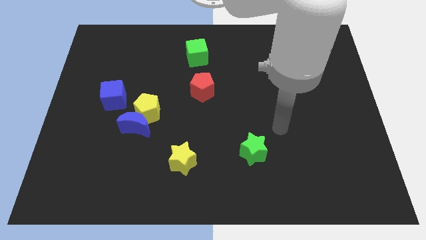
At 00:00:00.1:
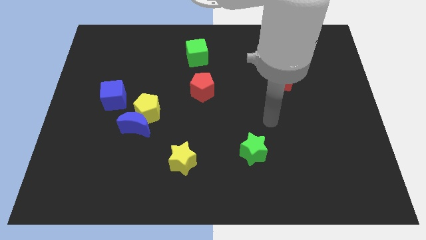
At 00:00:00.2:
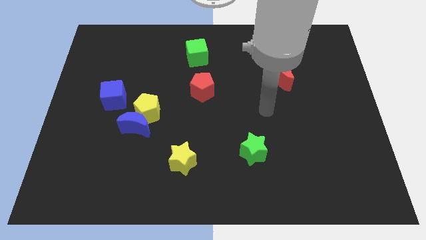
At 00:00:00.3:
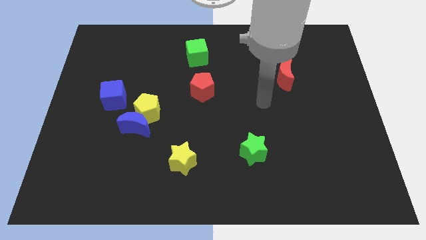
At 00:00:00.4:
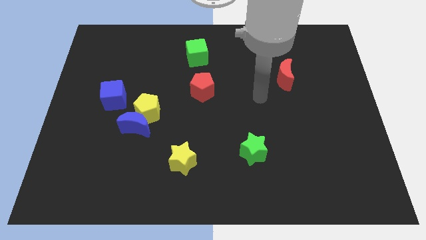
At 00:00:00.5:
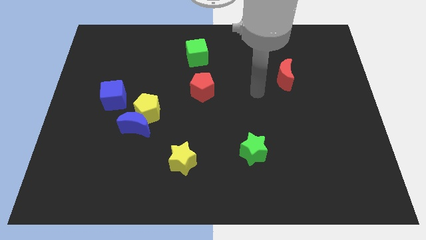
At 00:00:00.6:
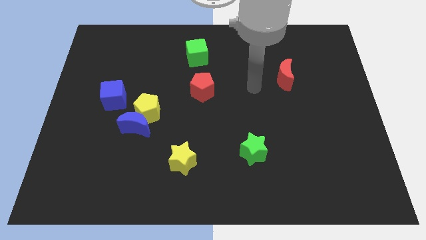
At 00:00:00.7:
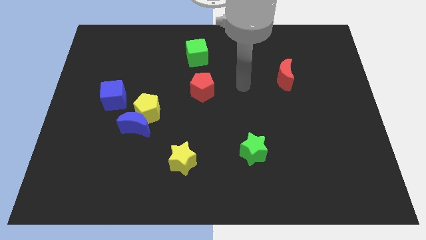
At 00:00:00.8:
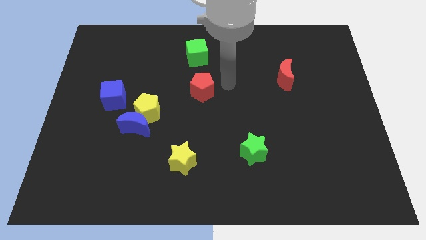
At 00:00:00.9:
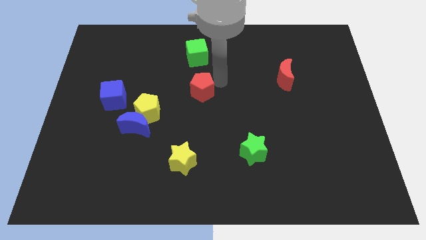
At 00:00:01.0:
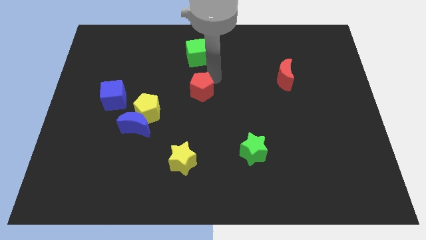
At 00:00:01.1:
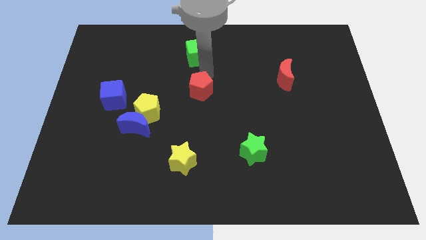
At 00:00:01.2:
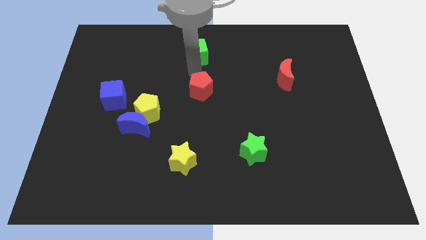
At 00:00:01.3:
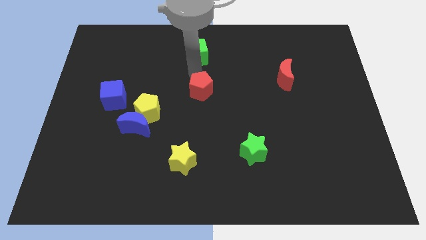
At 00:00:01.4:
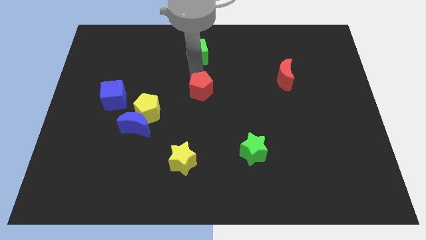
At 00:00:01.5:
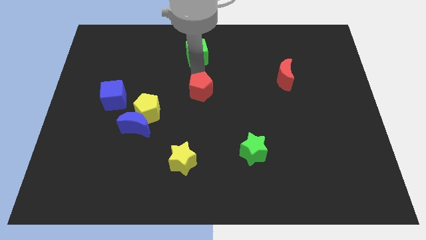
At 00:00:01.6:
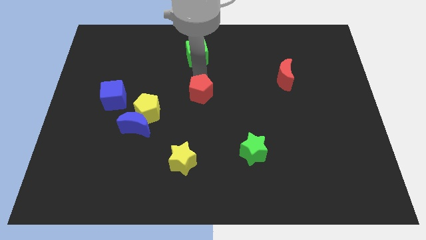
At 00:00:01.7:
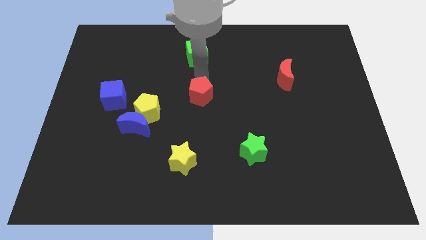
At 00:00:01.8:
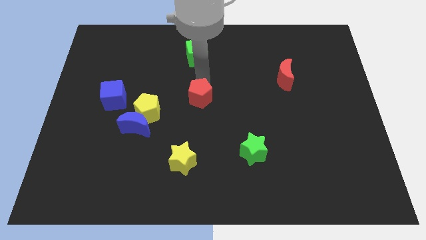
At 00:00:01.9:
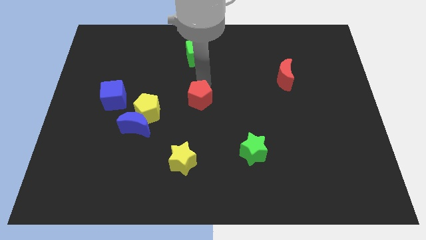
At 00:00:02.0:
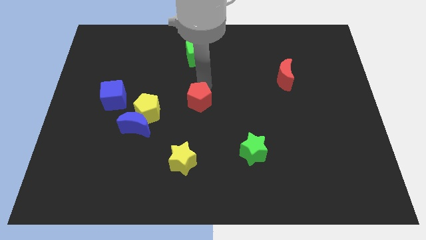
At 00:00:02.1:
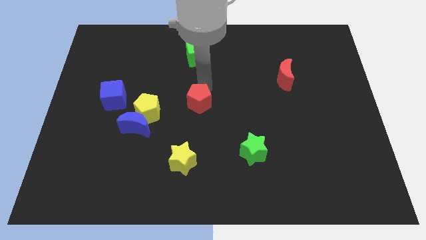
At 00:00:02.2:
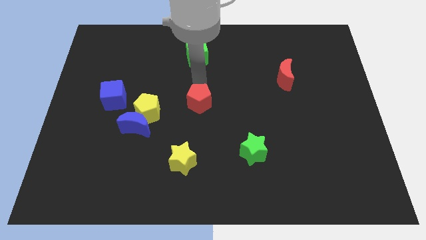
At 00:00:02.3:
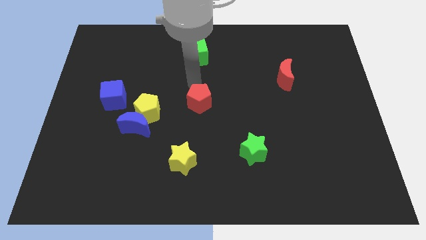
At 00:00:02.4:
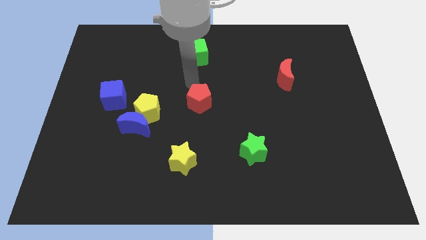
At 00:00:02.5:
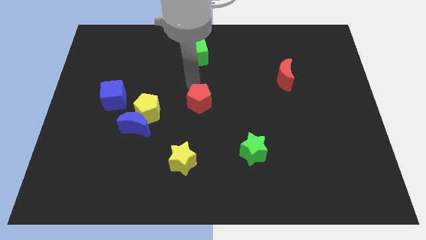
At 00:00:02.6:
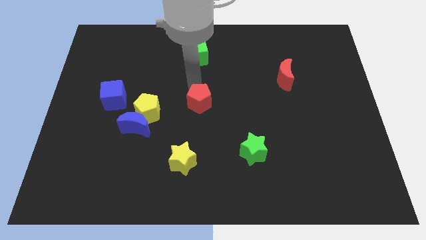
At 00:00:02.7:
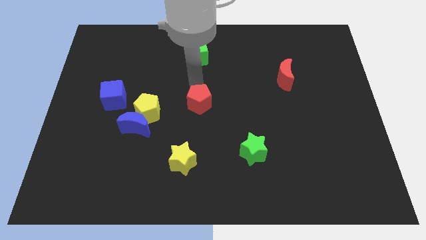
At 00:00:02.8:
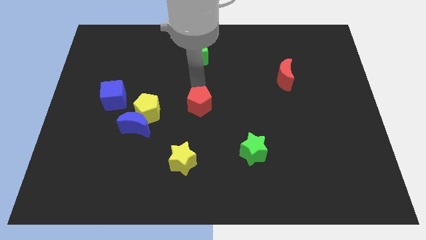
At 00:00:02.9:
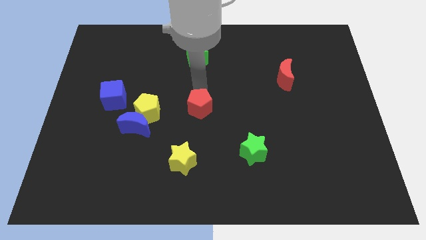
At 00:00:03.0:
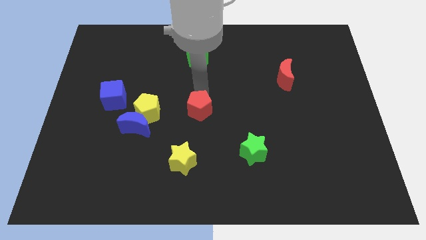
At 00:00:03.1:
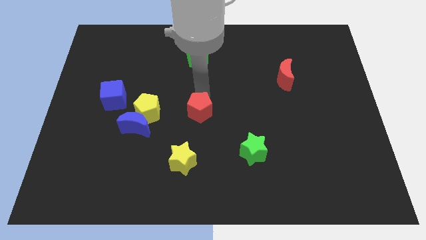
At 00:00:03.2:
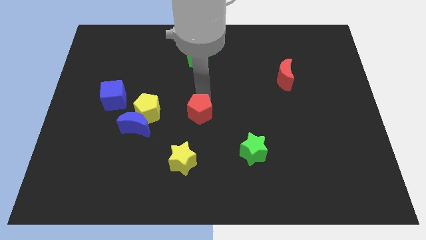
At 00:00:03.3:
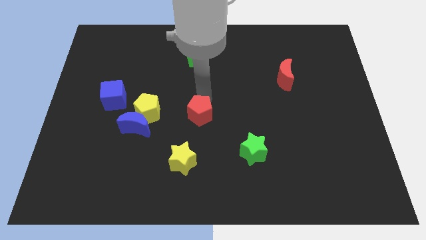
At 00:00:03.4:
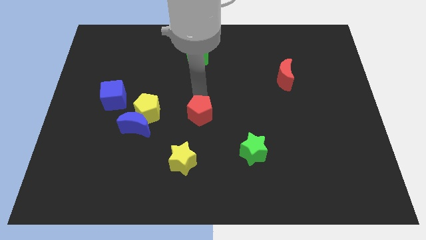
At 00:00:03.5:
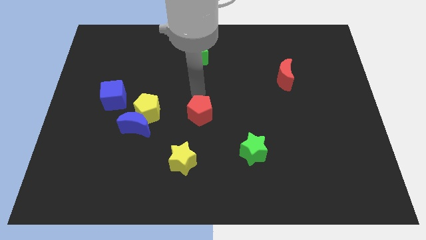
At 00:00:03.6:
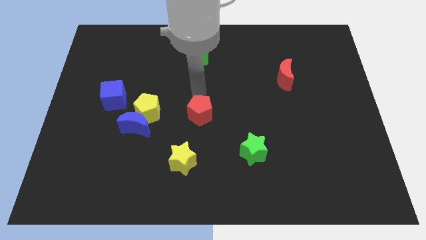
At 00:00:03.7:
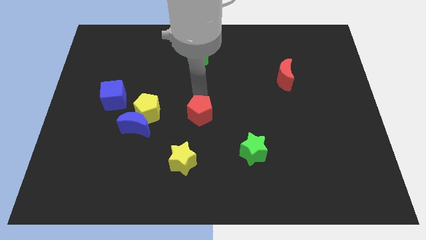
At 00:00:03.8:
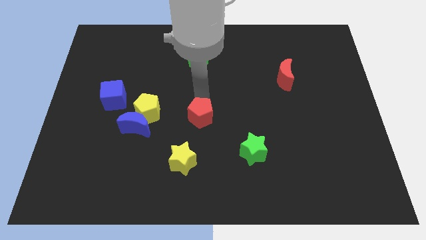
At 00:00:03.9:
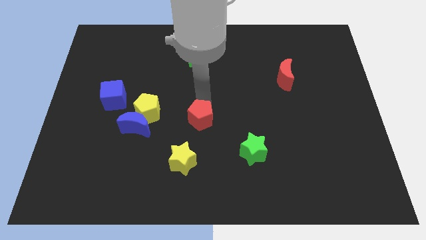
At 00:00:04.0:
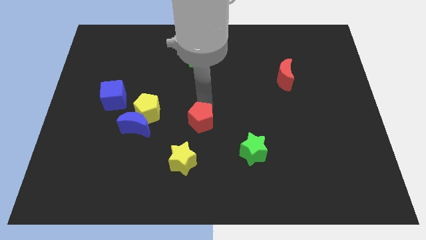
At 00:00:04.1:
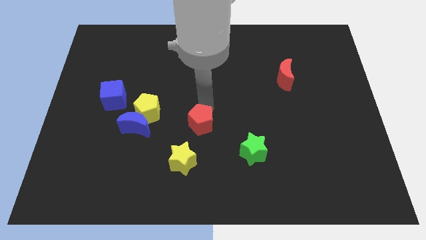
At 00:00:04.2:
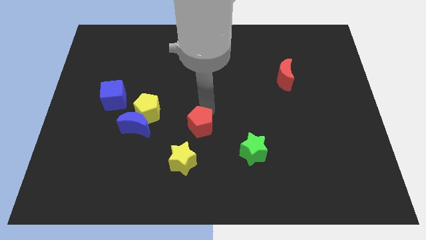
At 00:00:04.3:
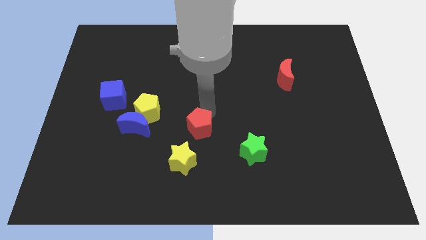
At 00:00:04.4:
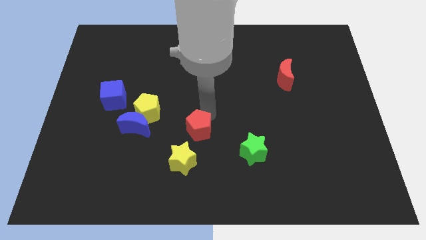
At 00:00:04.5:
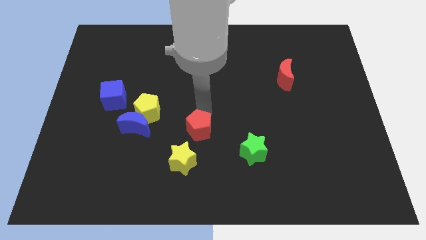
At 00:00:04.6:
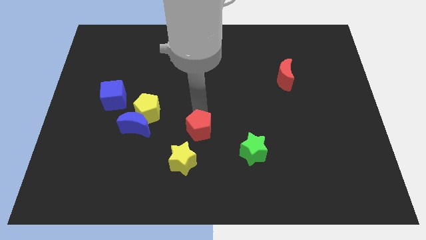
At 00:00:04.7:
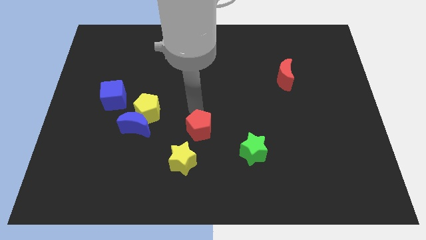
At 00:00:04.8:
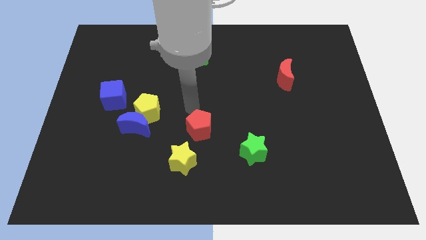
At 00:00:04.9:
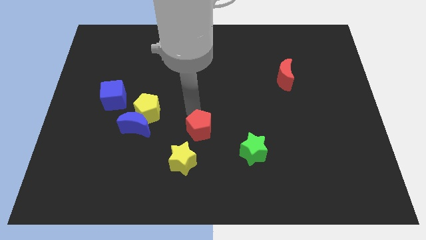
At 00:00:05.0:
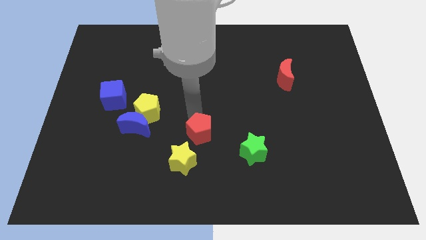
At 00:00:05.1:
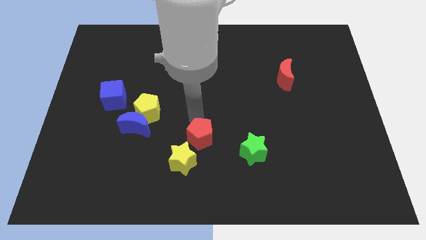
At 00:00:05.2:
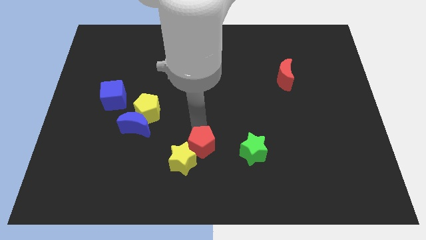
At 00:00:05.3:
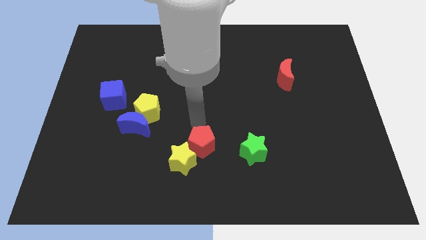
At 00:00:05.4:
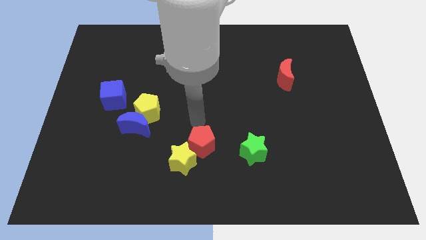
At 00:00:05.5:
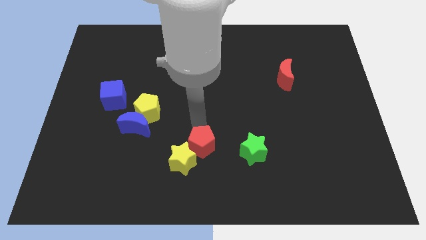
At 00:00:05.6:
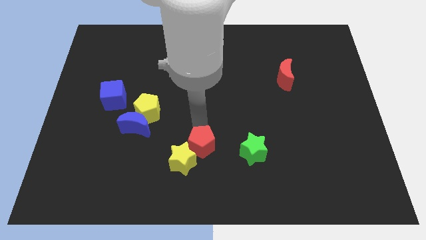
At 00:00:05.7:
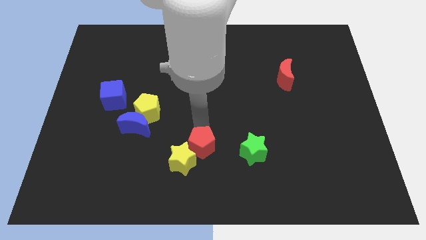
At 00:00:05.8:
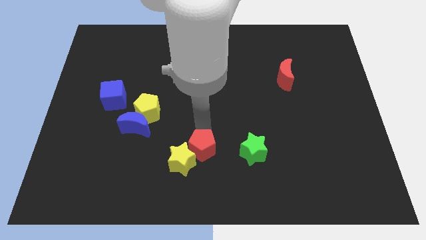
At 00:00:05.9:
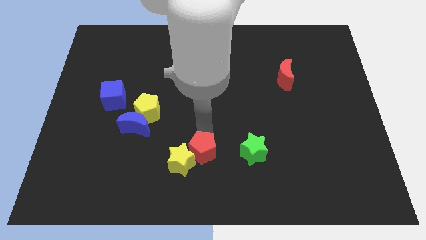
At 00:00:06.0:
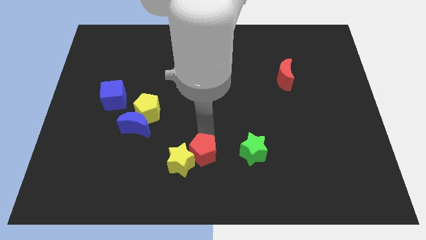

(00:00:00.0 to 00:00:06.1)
move the red pentagon to the bottom
